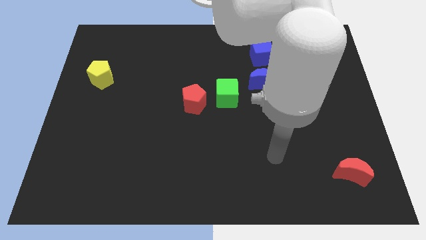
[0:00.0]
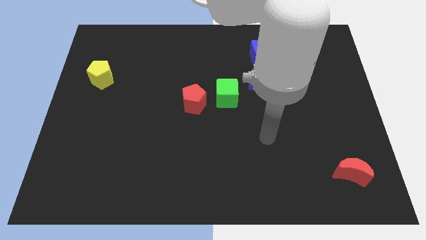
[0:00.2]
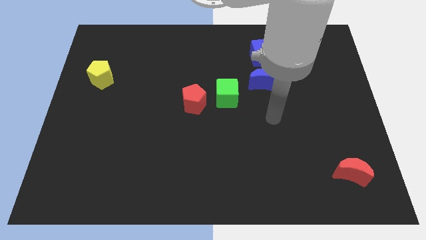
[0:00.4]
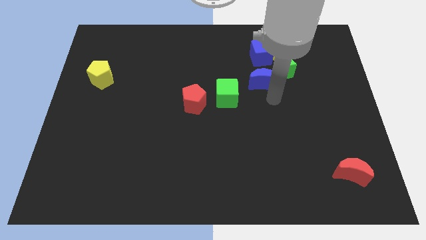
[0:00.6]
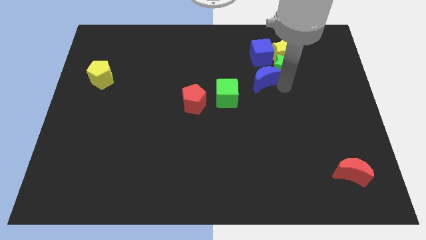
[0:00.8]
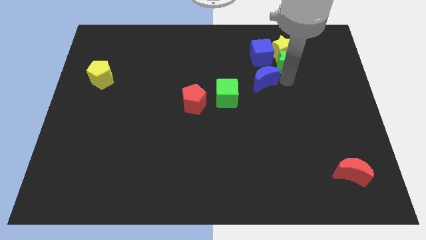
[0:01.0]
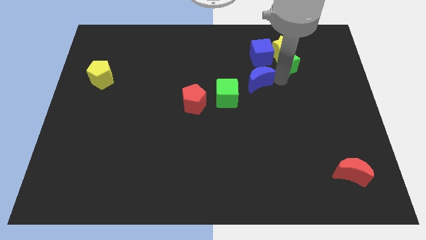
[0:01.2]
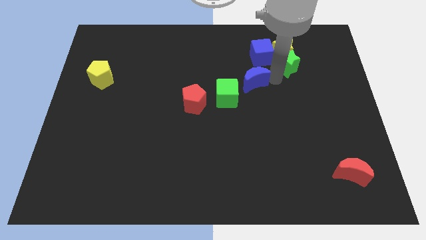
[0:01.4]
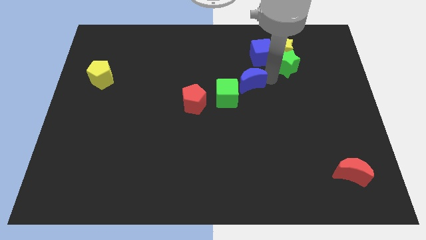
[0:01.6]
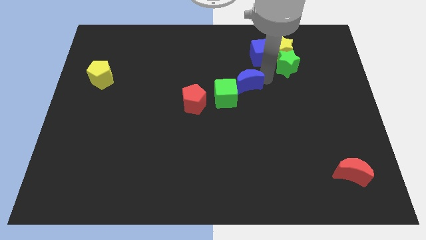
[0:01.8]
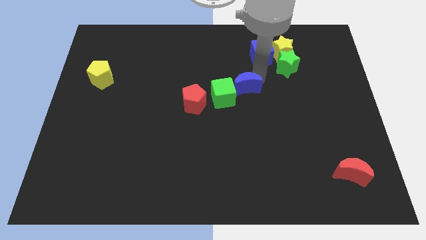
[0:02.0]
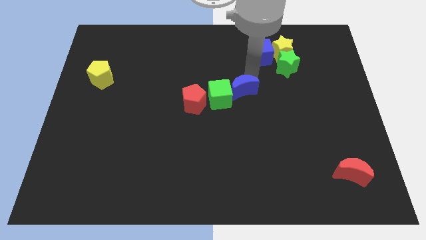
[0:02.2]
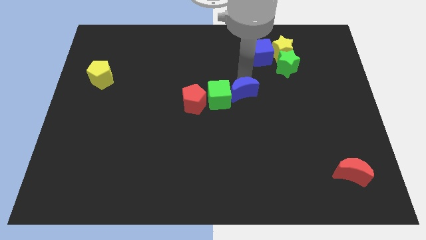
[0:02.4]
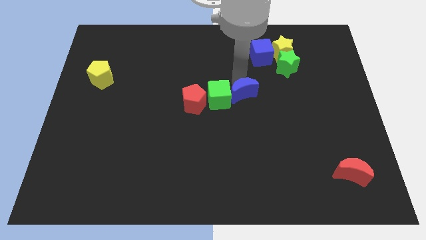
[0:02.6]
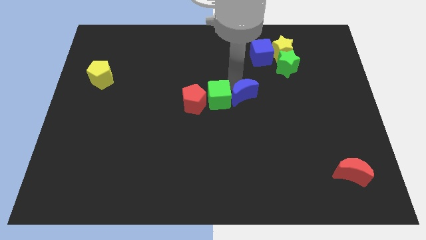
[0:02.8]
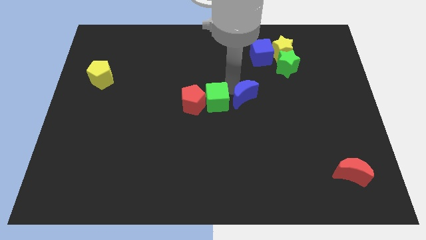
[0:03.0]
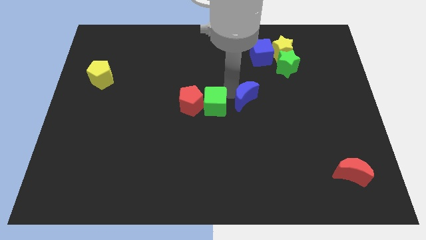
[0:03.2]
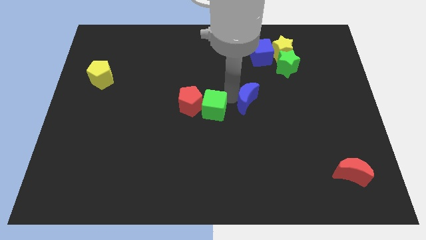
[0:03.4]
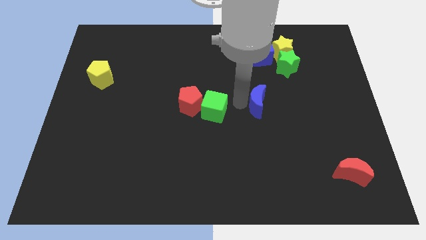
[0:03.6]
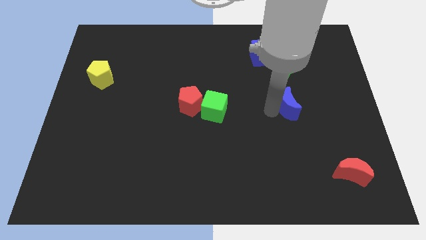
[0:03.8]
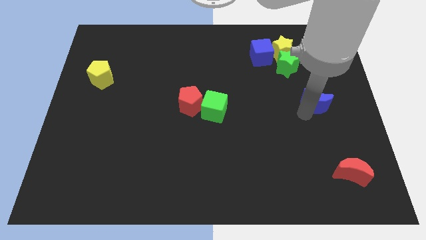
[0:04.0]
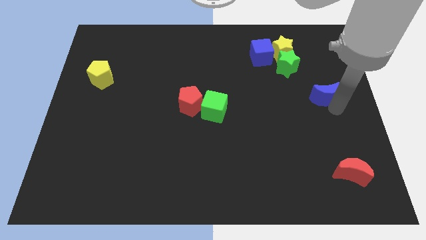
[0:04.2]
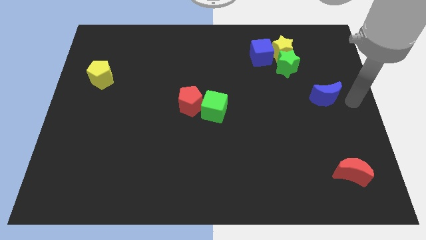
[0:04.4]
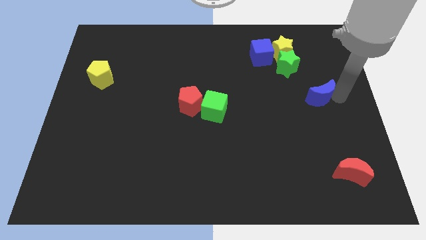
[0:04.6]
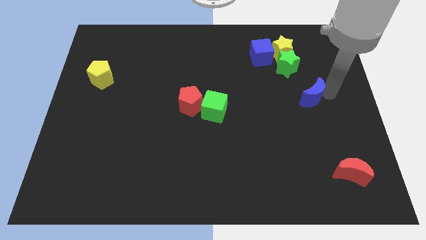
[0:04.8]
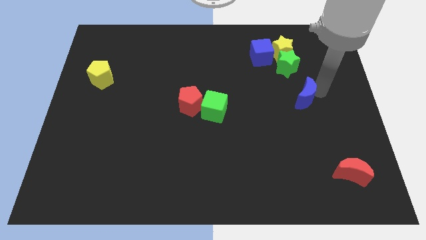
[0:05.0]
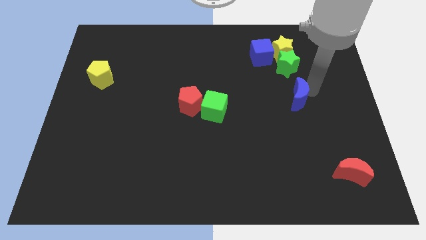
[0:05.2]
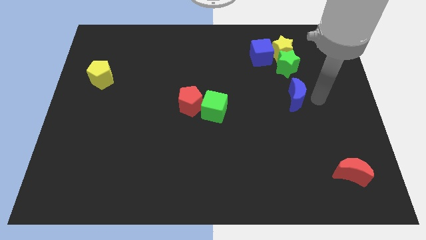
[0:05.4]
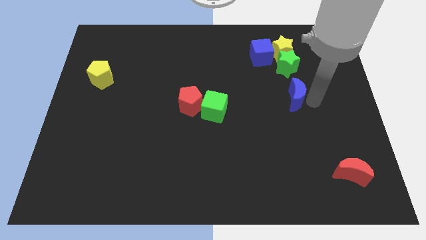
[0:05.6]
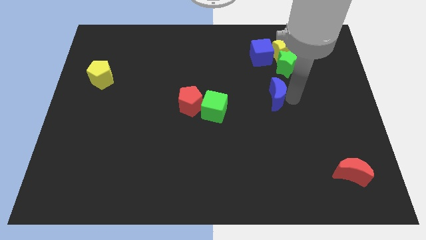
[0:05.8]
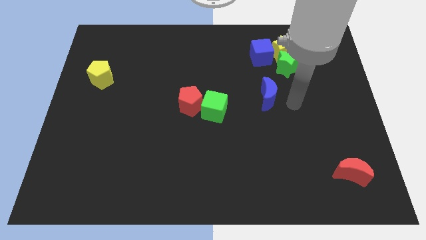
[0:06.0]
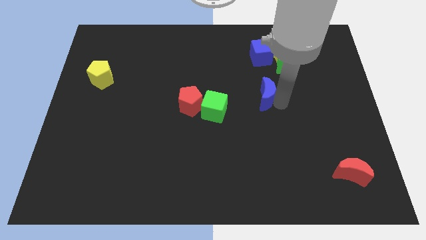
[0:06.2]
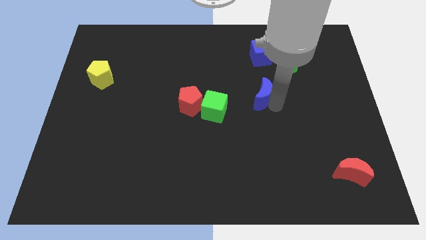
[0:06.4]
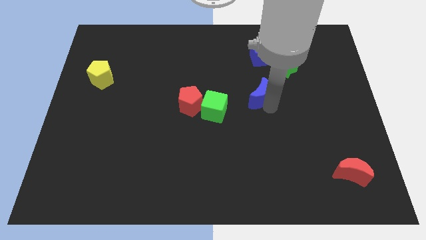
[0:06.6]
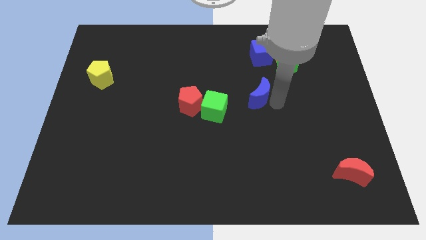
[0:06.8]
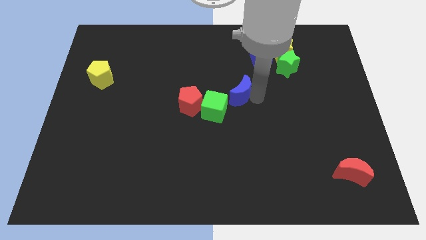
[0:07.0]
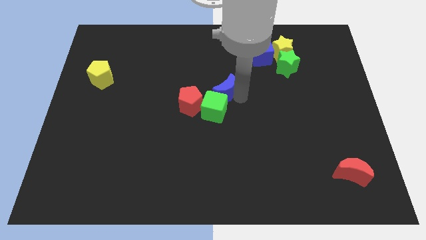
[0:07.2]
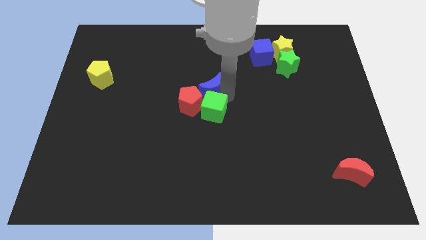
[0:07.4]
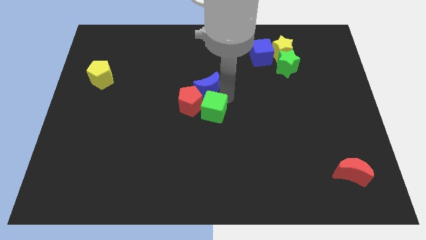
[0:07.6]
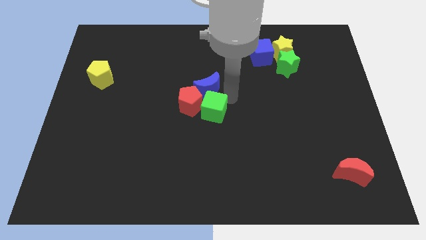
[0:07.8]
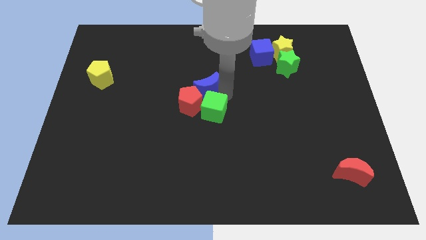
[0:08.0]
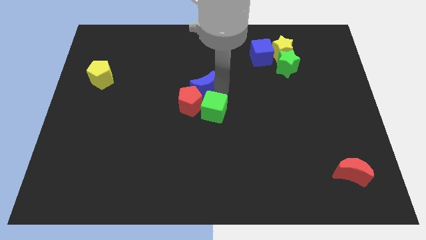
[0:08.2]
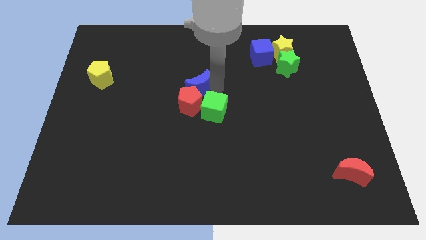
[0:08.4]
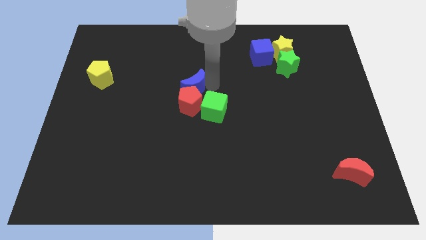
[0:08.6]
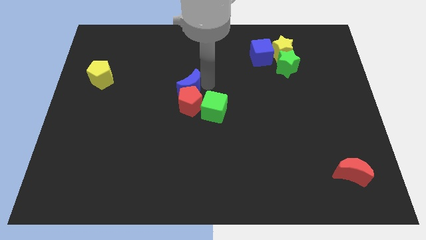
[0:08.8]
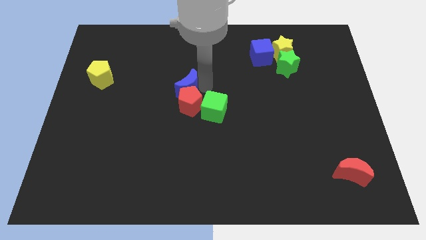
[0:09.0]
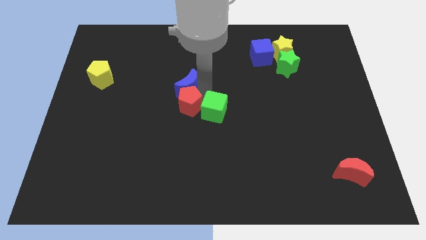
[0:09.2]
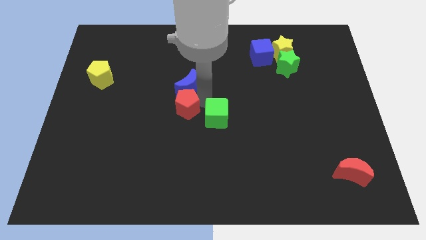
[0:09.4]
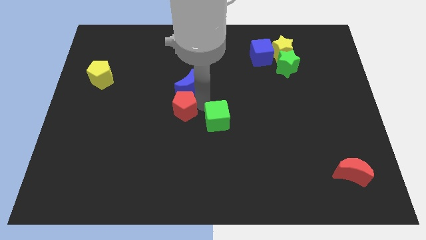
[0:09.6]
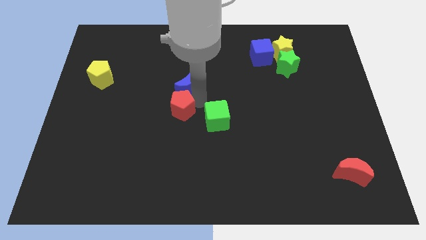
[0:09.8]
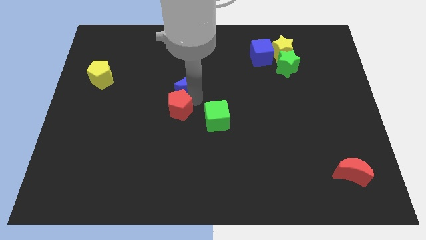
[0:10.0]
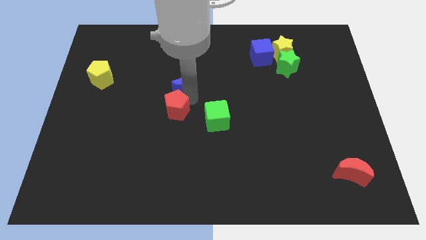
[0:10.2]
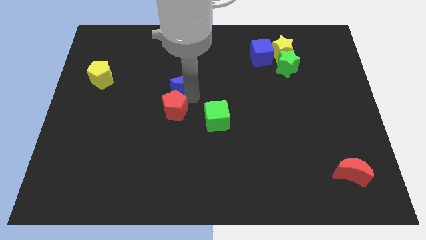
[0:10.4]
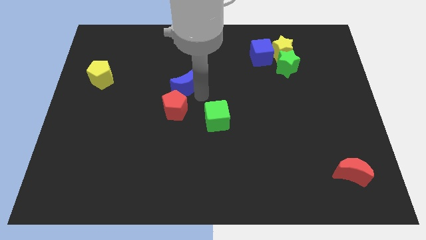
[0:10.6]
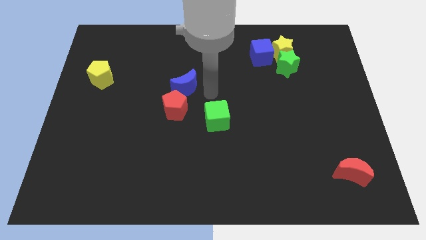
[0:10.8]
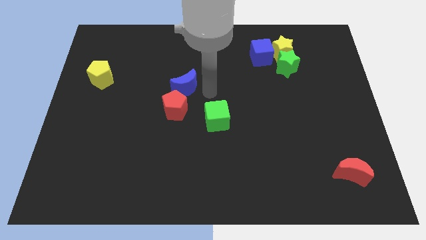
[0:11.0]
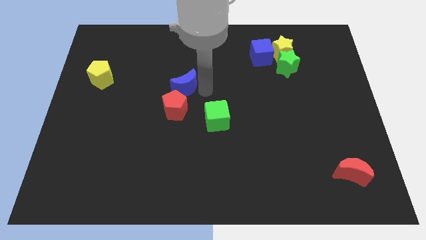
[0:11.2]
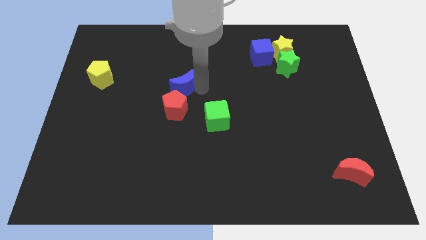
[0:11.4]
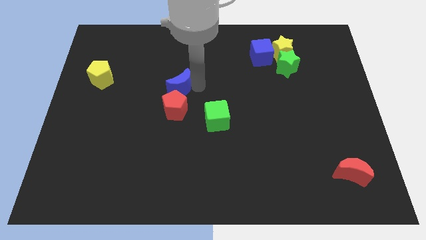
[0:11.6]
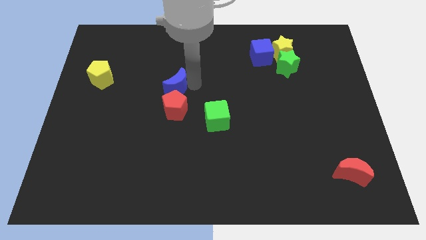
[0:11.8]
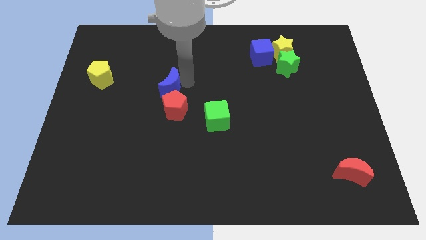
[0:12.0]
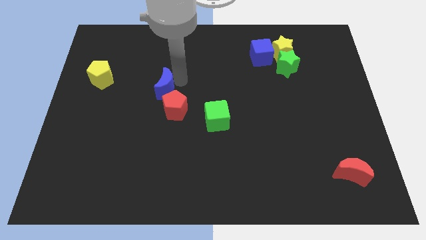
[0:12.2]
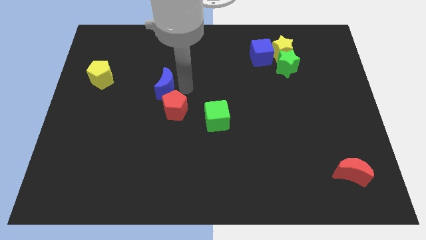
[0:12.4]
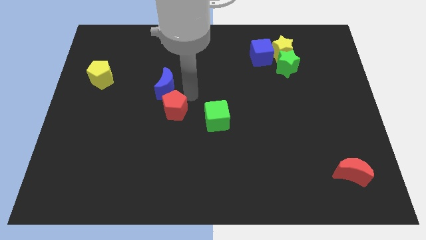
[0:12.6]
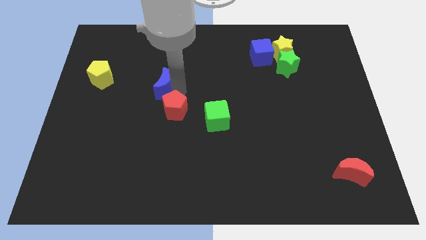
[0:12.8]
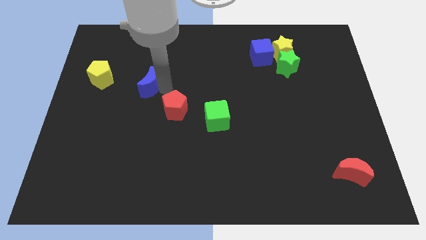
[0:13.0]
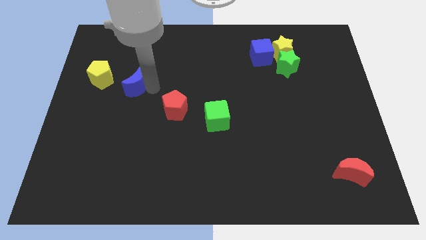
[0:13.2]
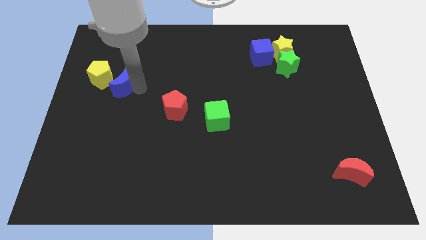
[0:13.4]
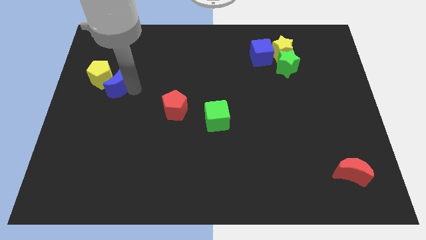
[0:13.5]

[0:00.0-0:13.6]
put the blue moon towards the yellow pentagon

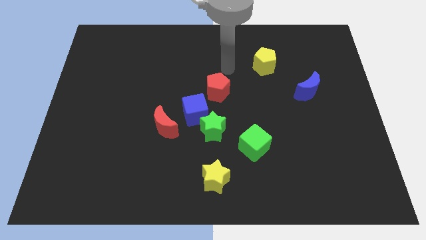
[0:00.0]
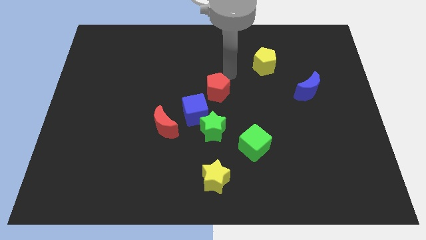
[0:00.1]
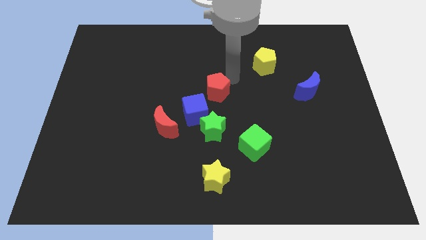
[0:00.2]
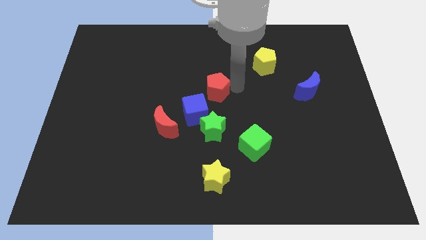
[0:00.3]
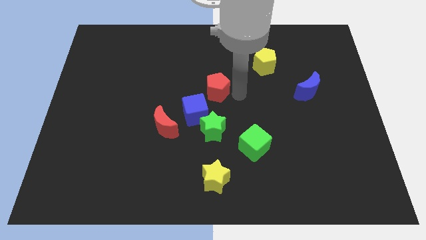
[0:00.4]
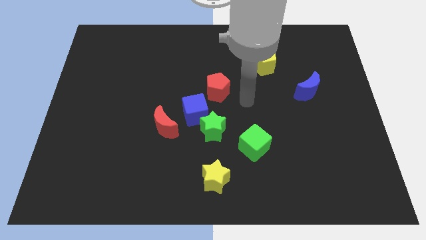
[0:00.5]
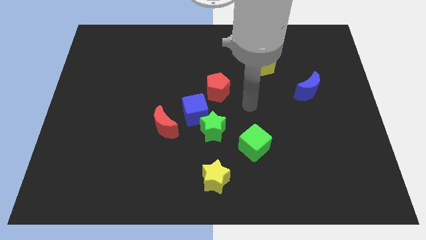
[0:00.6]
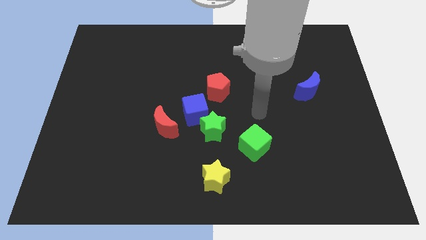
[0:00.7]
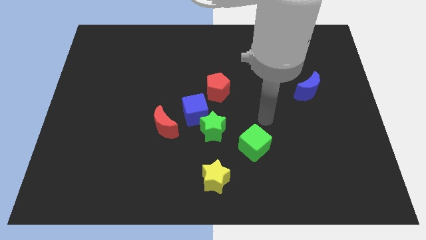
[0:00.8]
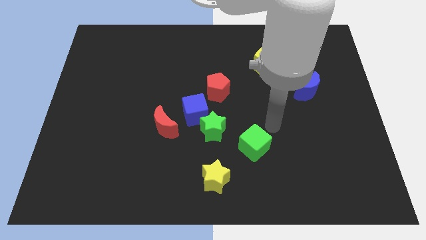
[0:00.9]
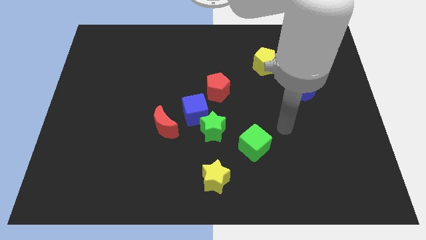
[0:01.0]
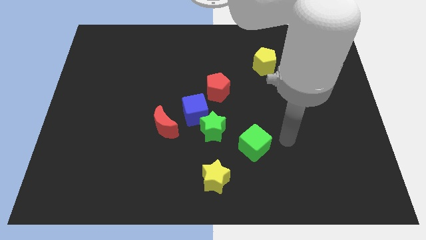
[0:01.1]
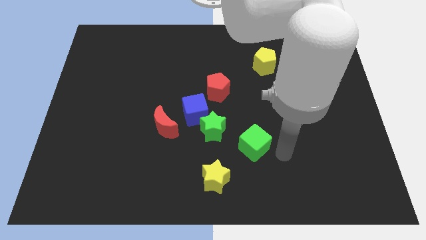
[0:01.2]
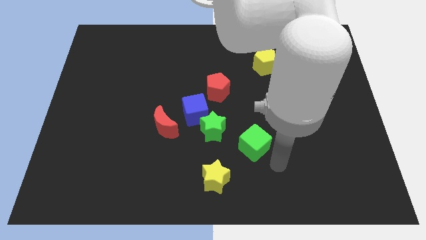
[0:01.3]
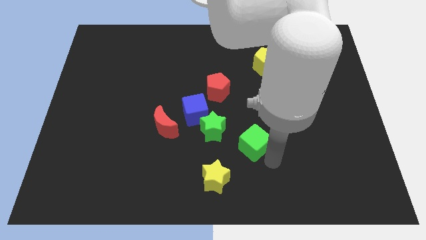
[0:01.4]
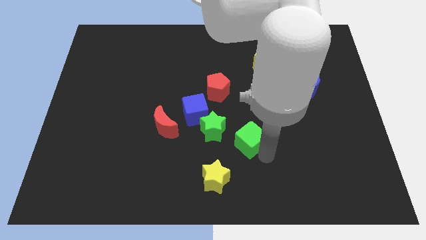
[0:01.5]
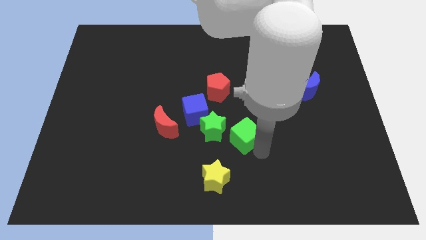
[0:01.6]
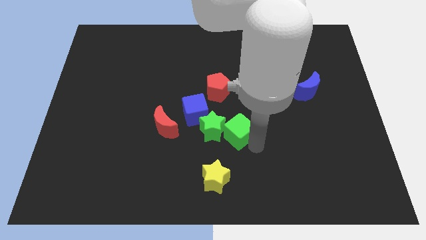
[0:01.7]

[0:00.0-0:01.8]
push the green cube to the green star
